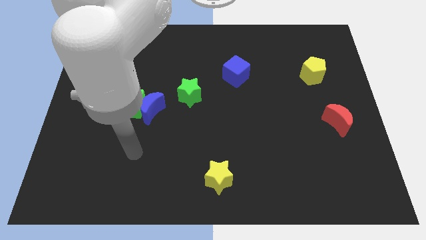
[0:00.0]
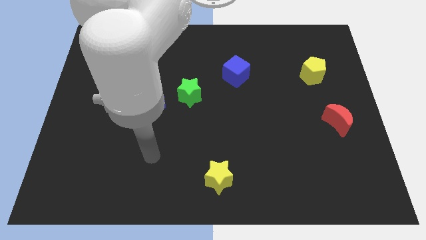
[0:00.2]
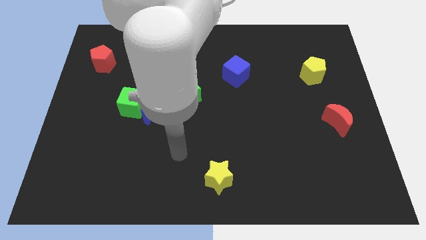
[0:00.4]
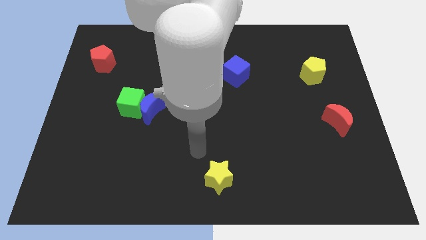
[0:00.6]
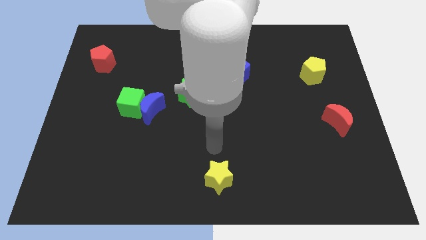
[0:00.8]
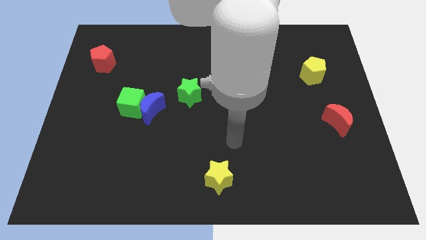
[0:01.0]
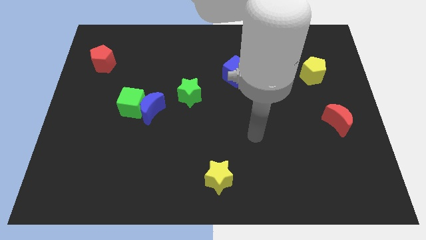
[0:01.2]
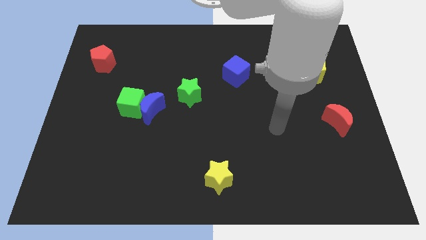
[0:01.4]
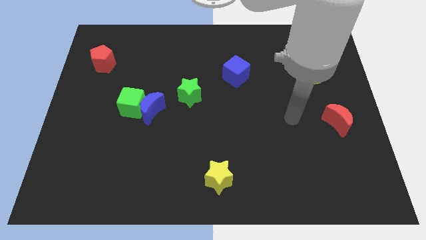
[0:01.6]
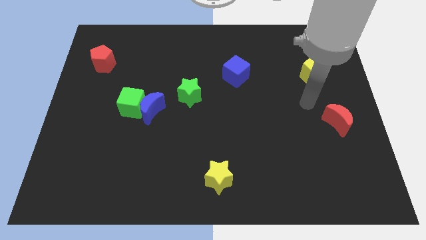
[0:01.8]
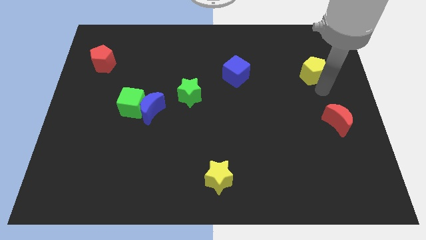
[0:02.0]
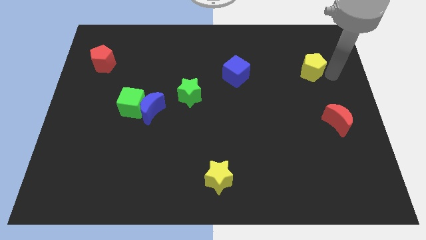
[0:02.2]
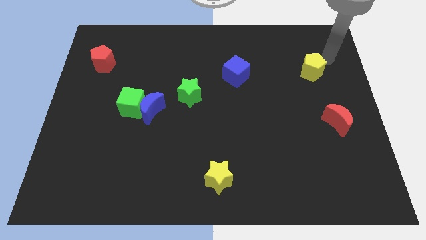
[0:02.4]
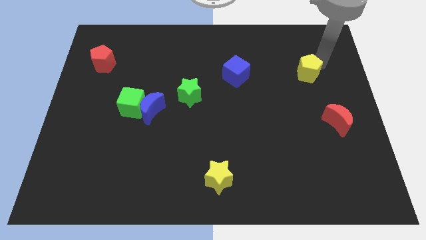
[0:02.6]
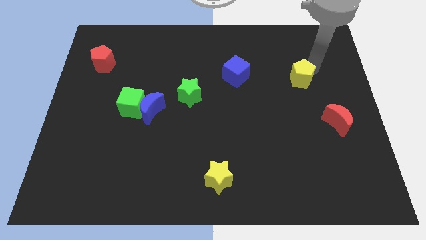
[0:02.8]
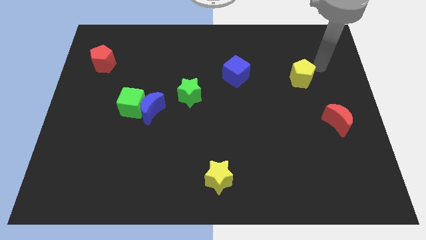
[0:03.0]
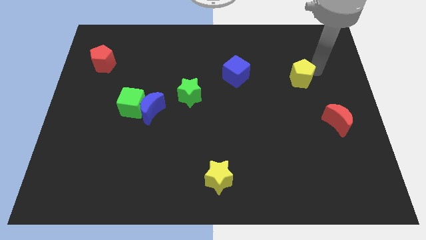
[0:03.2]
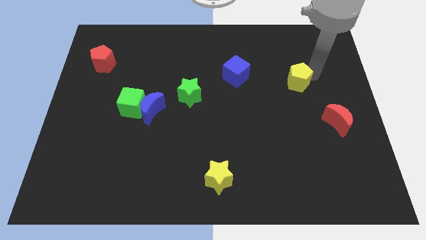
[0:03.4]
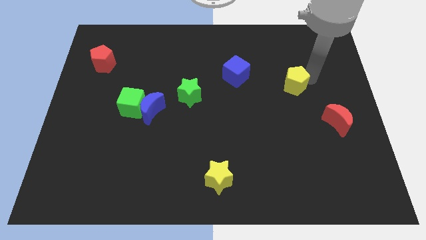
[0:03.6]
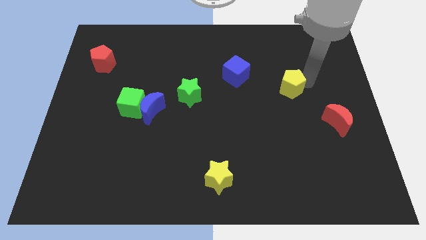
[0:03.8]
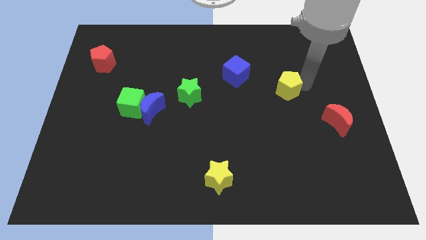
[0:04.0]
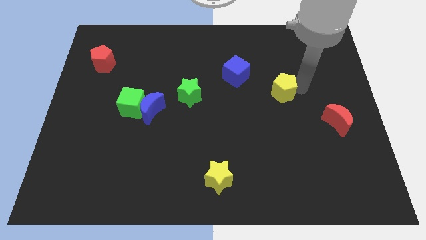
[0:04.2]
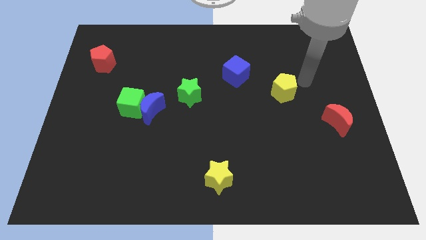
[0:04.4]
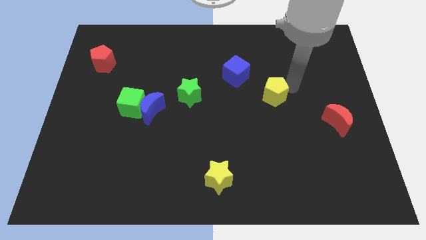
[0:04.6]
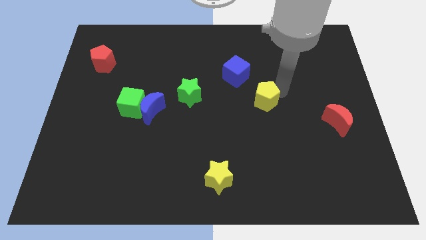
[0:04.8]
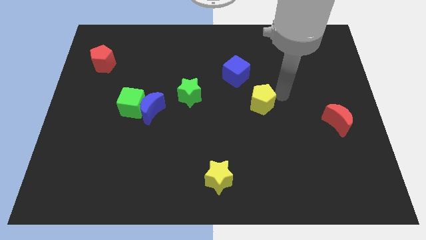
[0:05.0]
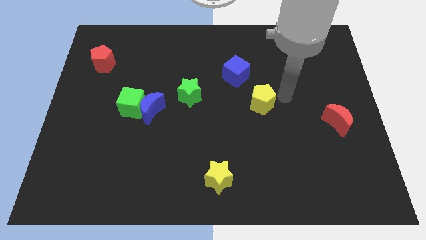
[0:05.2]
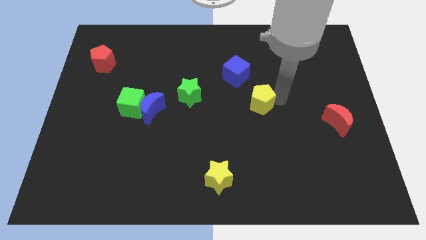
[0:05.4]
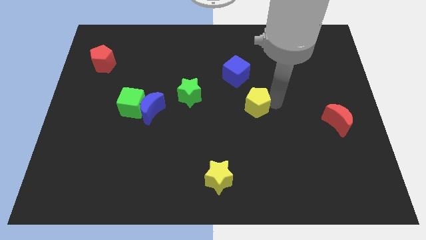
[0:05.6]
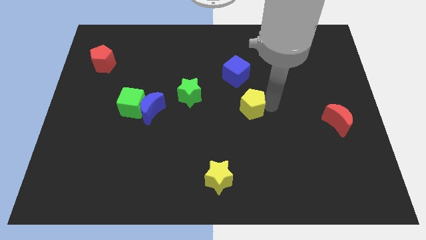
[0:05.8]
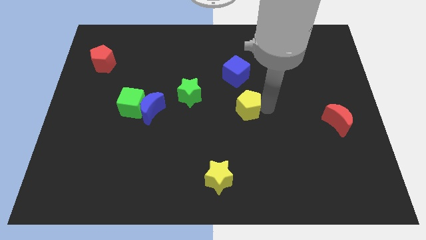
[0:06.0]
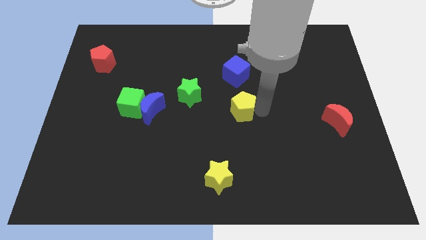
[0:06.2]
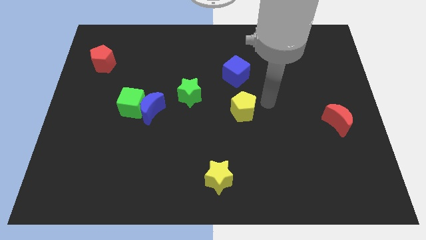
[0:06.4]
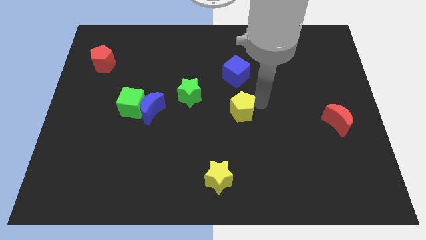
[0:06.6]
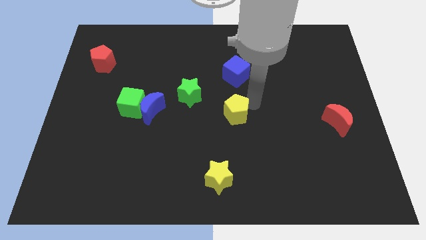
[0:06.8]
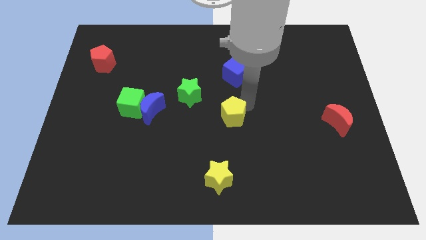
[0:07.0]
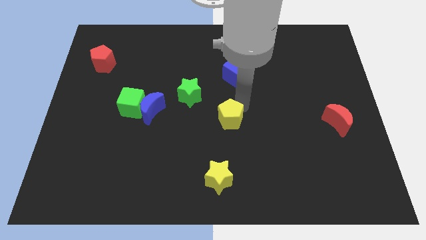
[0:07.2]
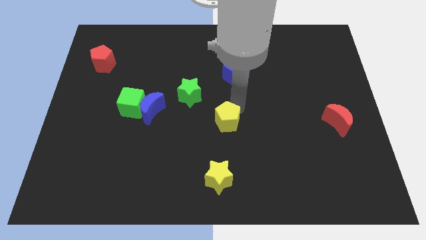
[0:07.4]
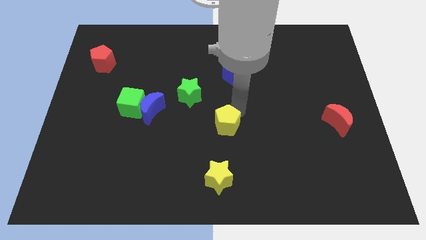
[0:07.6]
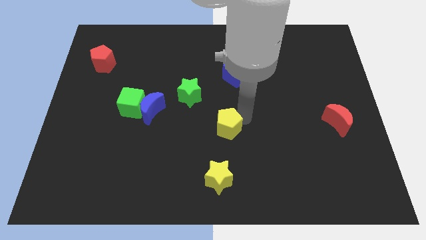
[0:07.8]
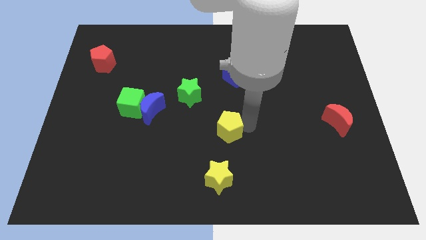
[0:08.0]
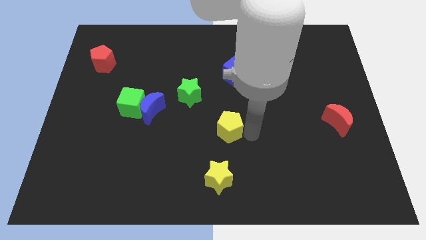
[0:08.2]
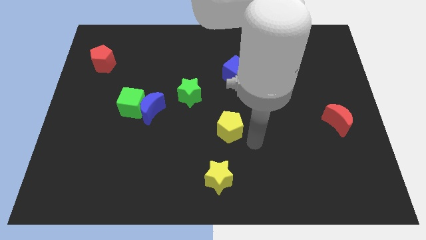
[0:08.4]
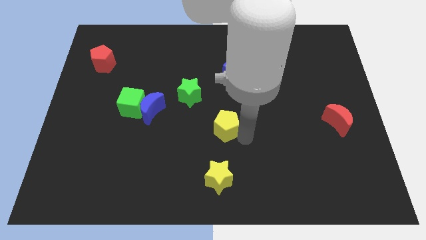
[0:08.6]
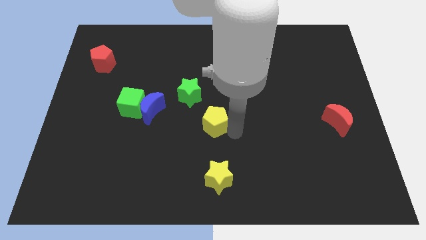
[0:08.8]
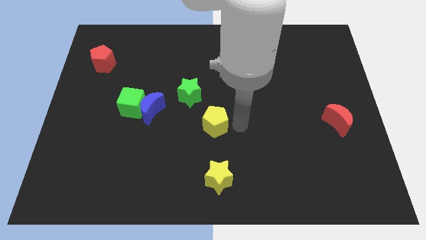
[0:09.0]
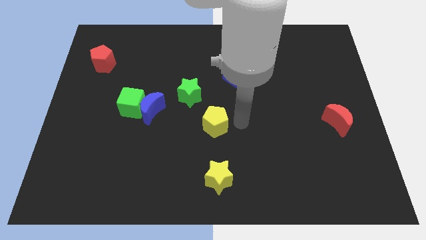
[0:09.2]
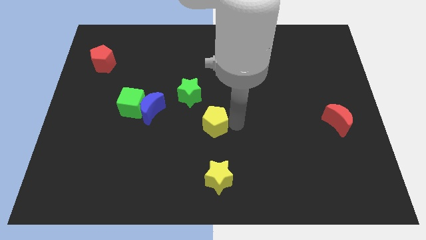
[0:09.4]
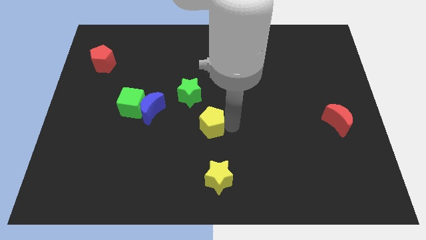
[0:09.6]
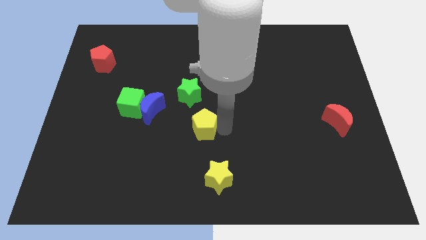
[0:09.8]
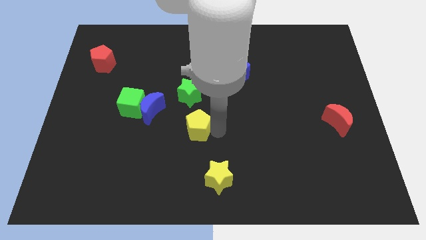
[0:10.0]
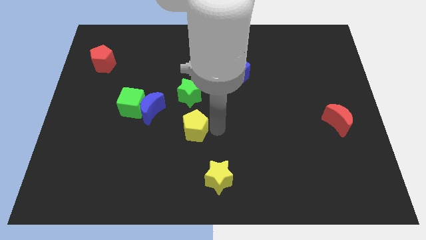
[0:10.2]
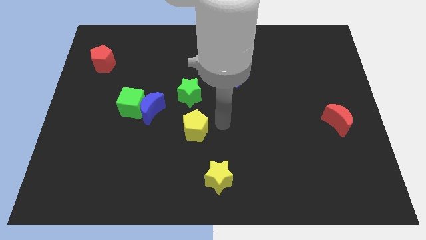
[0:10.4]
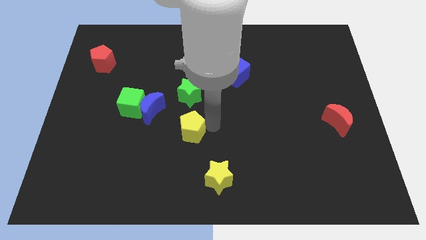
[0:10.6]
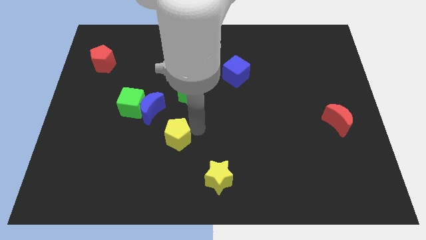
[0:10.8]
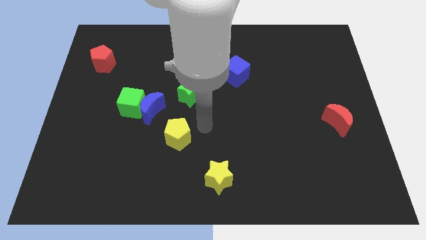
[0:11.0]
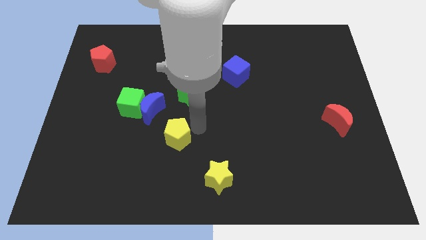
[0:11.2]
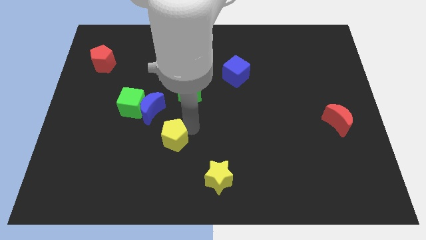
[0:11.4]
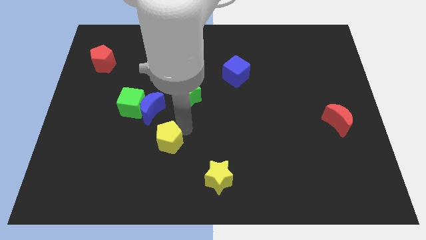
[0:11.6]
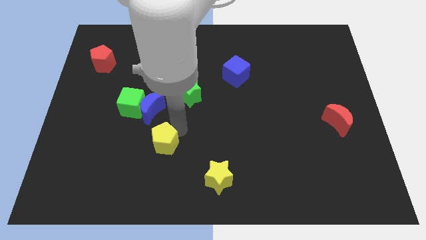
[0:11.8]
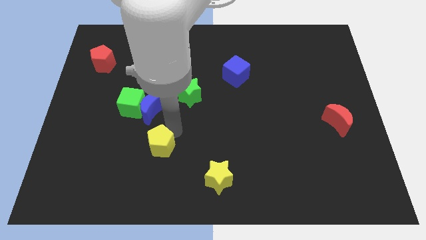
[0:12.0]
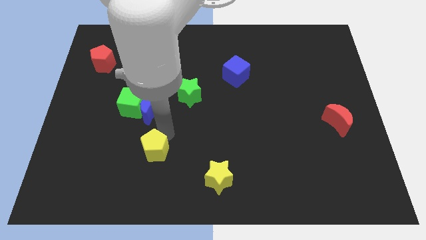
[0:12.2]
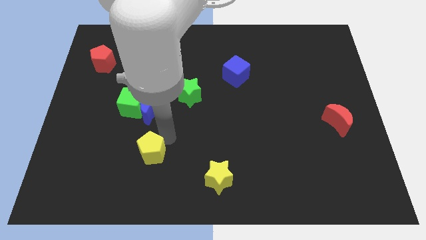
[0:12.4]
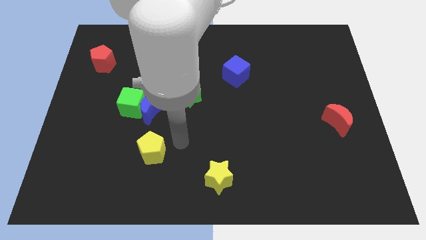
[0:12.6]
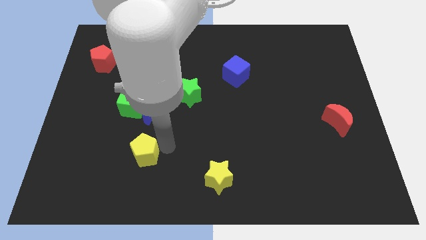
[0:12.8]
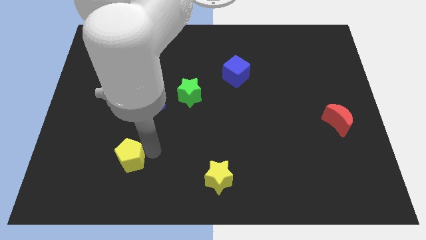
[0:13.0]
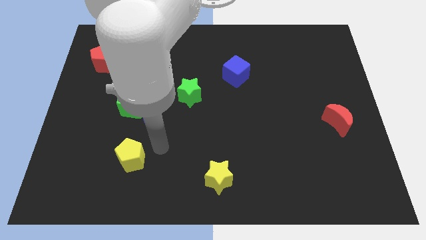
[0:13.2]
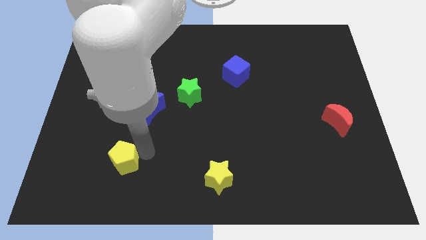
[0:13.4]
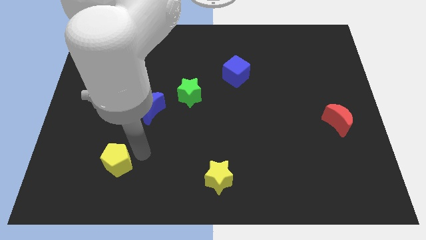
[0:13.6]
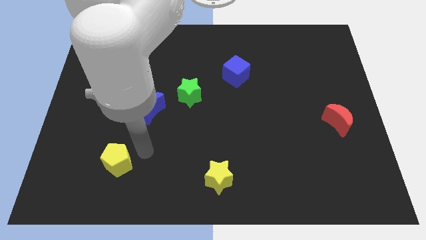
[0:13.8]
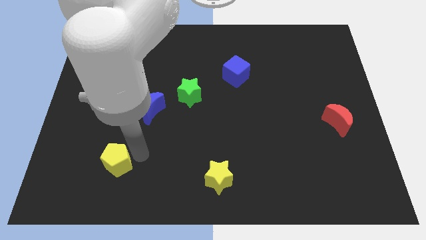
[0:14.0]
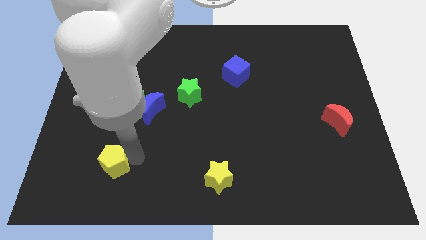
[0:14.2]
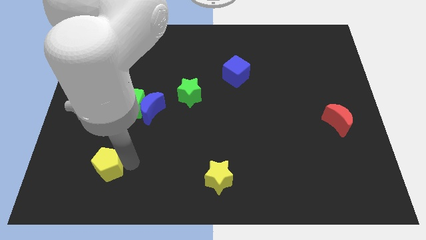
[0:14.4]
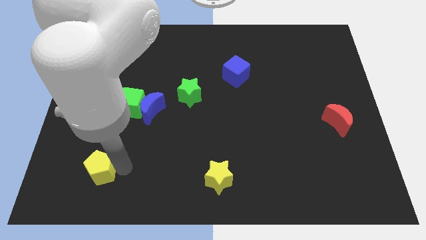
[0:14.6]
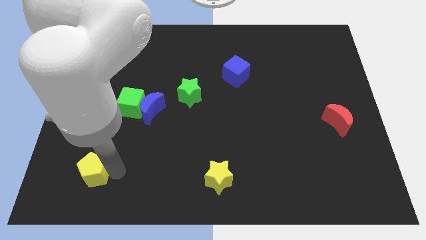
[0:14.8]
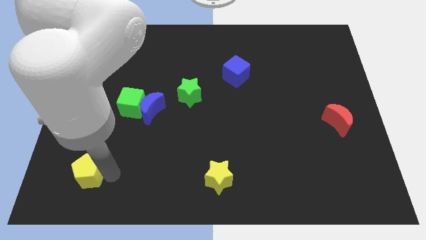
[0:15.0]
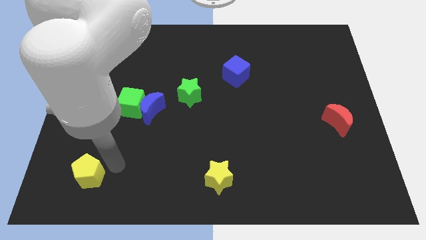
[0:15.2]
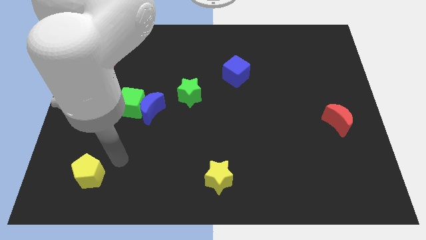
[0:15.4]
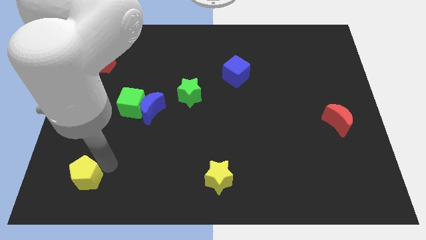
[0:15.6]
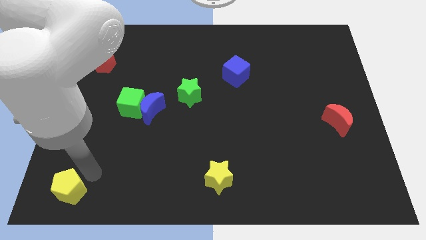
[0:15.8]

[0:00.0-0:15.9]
push the yellow pentagon to the bottom left
